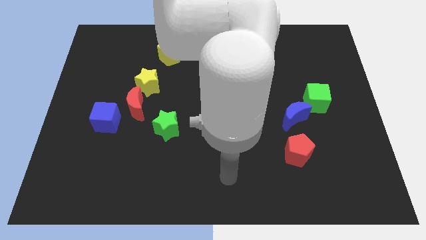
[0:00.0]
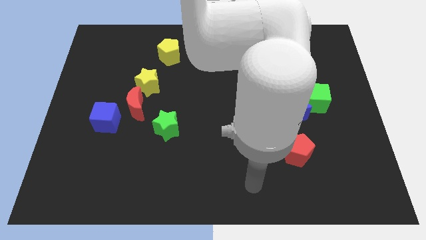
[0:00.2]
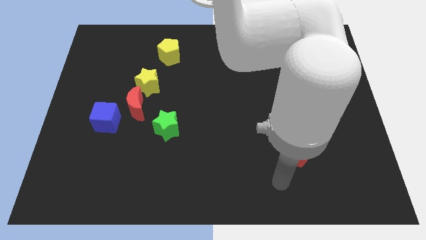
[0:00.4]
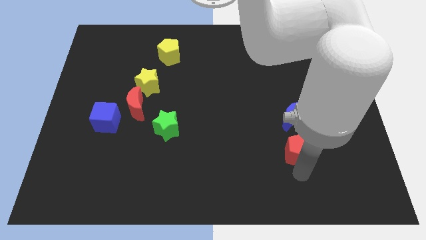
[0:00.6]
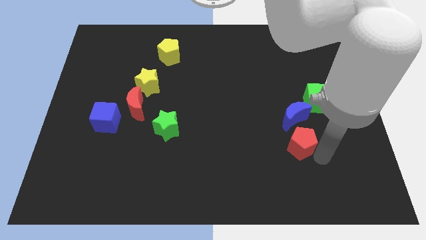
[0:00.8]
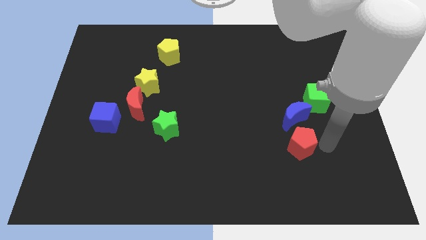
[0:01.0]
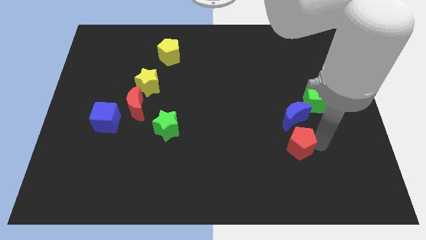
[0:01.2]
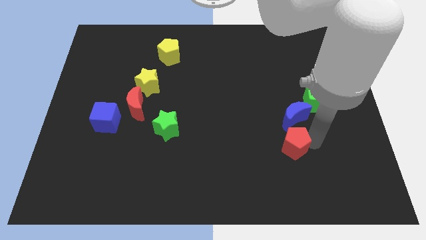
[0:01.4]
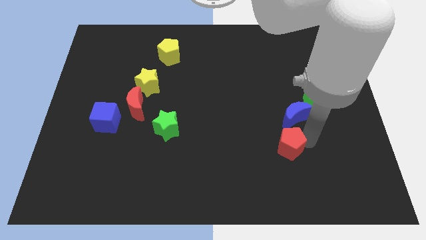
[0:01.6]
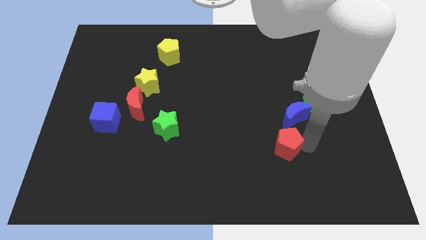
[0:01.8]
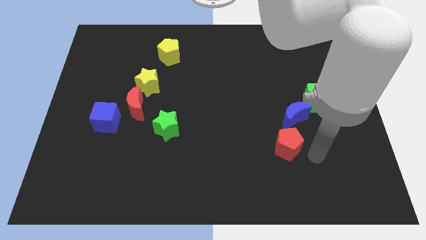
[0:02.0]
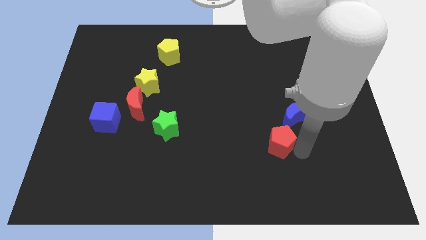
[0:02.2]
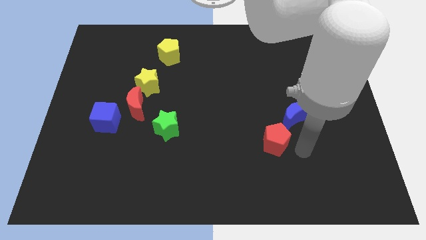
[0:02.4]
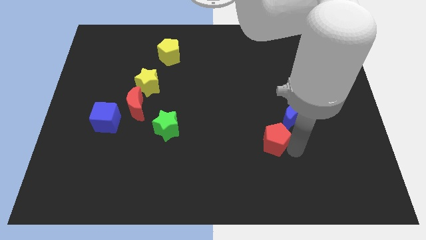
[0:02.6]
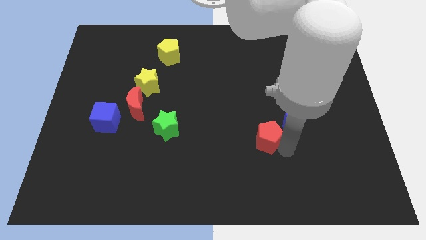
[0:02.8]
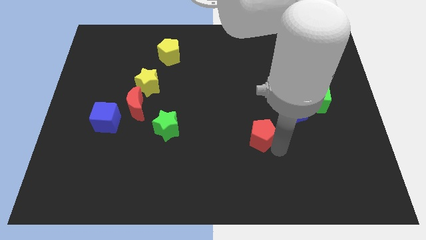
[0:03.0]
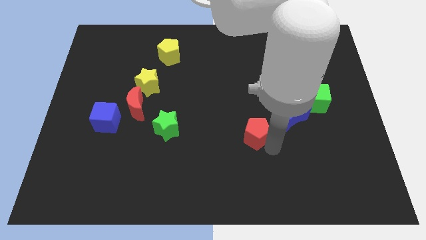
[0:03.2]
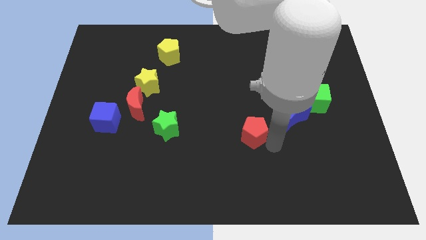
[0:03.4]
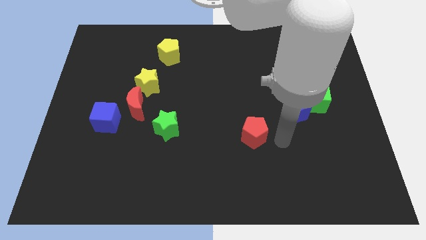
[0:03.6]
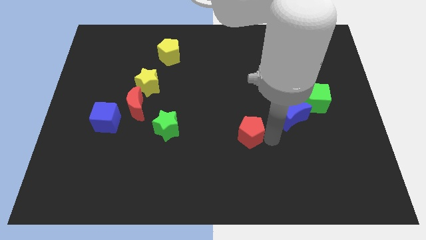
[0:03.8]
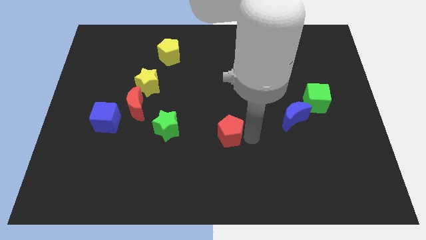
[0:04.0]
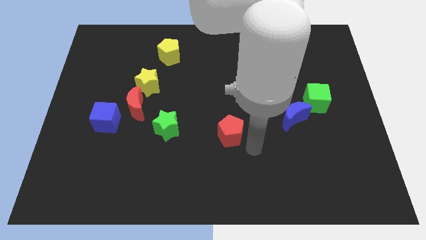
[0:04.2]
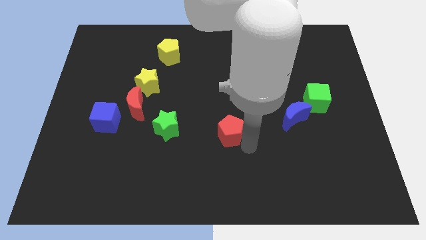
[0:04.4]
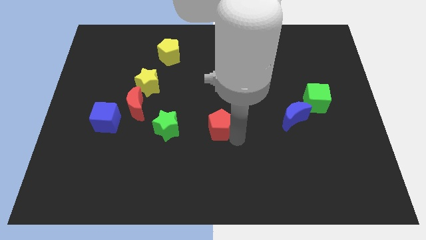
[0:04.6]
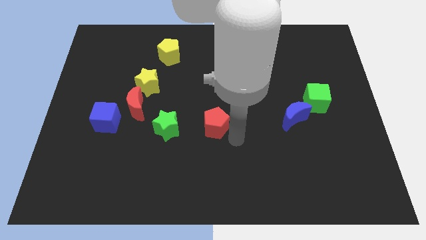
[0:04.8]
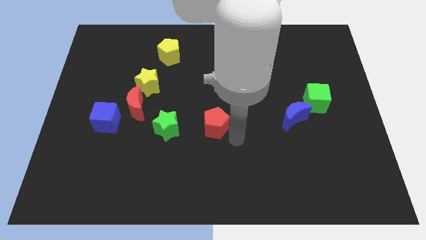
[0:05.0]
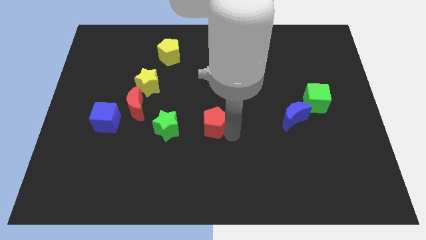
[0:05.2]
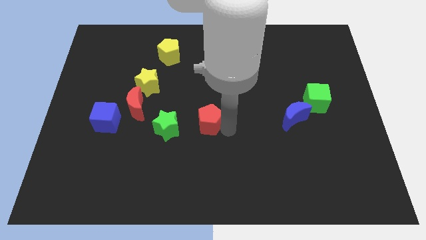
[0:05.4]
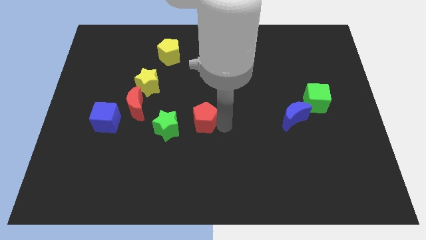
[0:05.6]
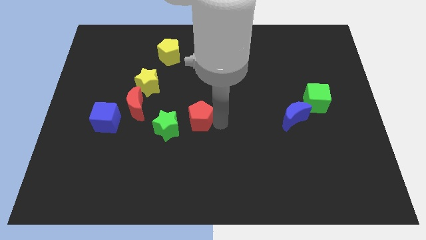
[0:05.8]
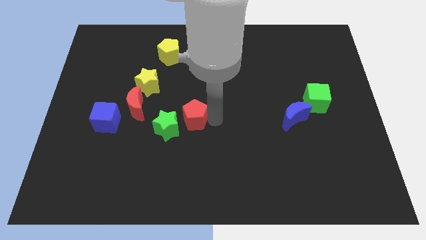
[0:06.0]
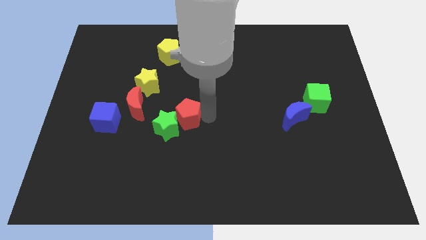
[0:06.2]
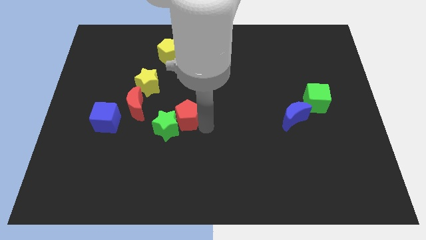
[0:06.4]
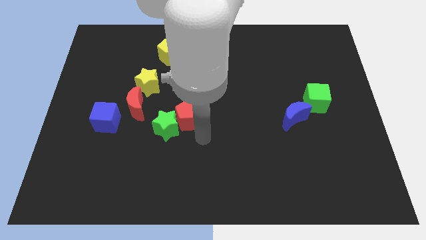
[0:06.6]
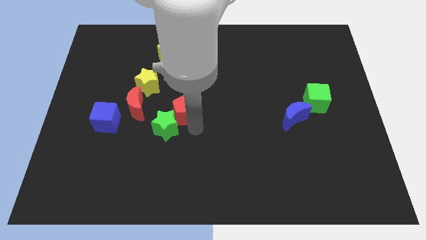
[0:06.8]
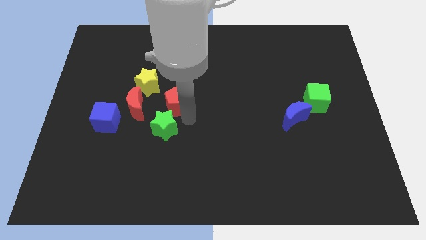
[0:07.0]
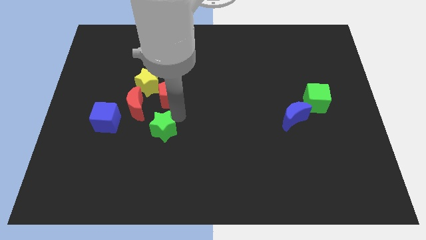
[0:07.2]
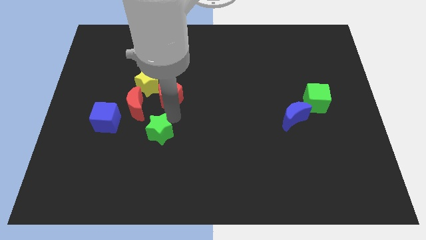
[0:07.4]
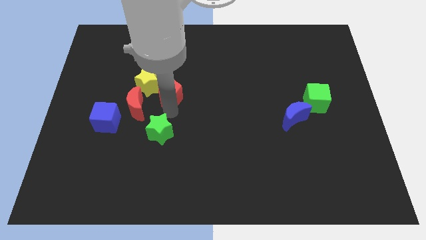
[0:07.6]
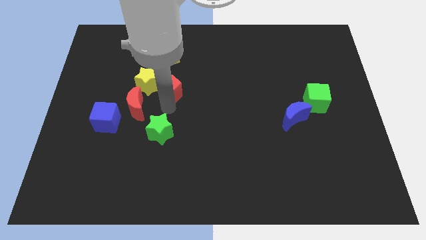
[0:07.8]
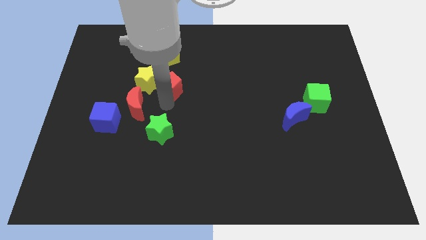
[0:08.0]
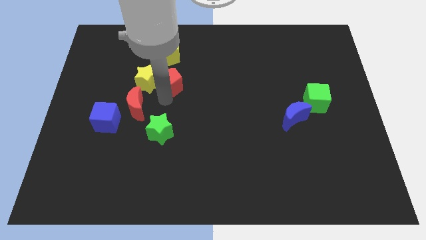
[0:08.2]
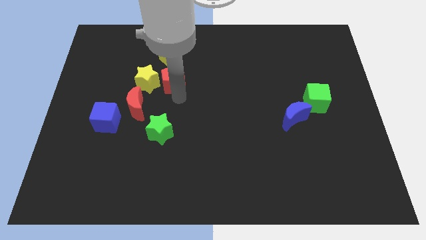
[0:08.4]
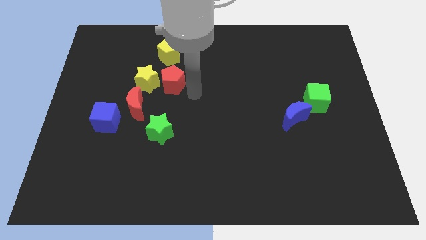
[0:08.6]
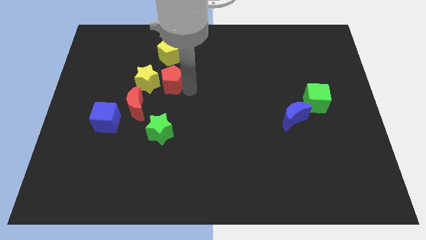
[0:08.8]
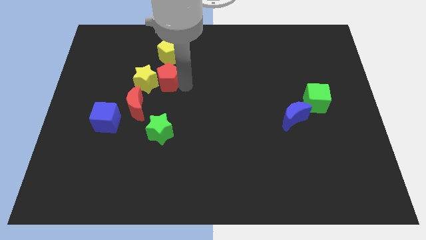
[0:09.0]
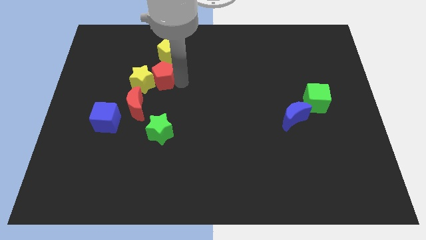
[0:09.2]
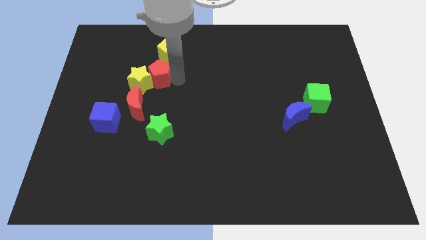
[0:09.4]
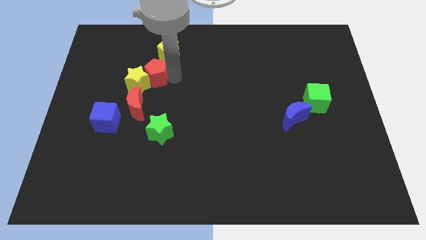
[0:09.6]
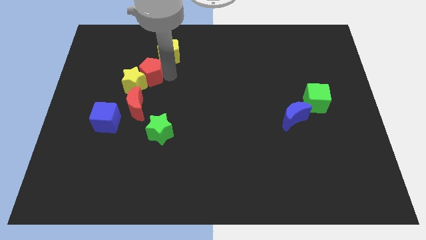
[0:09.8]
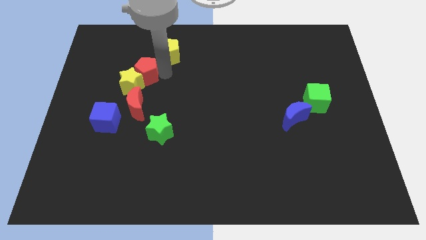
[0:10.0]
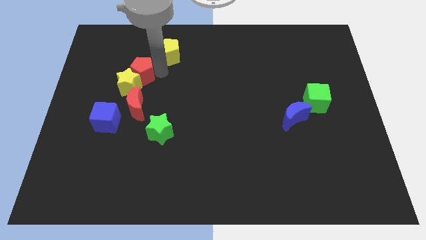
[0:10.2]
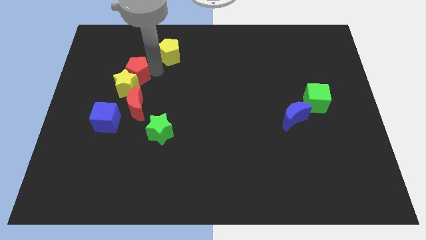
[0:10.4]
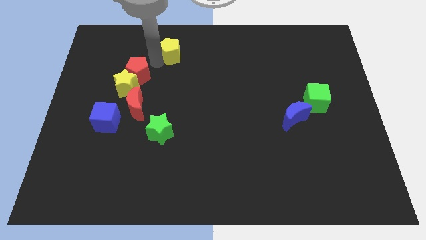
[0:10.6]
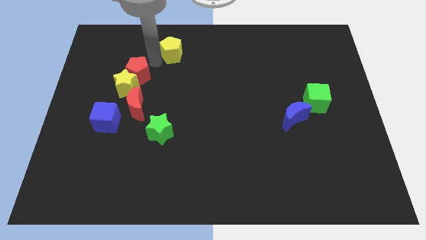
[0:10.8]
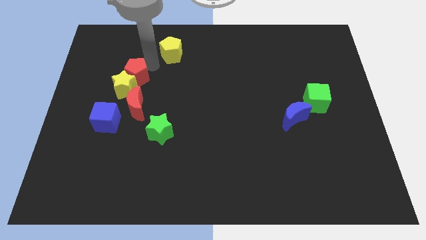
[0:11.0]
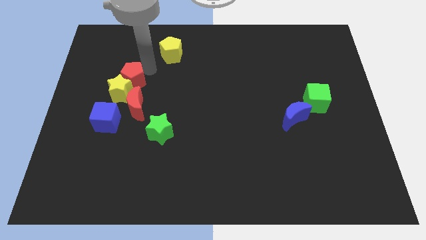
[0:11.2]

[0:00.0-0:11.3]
slide the red pentagon to the top left of the red moon

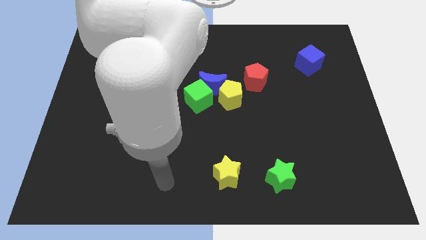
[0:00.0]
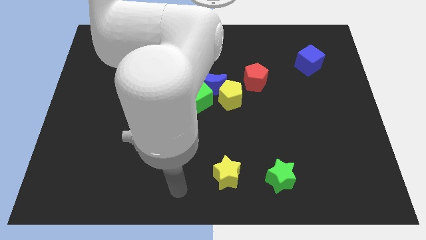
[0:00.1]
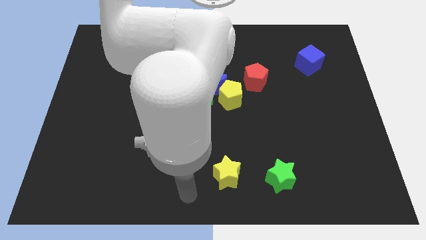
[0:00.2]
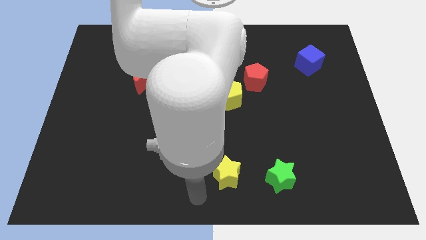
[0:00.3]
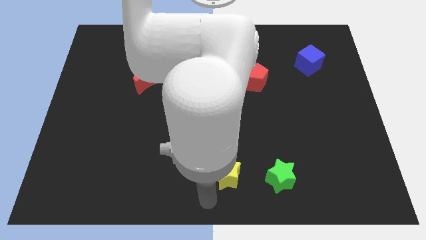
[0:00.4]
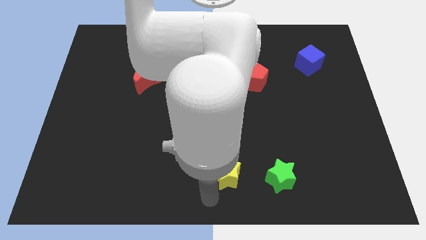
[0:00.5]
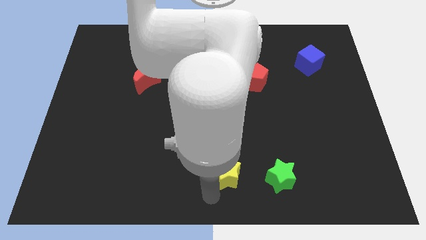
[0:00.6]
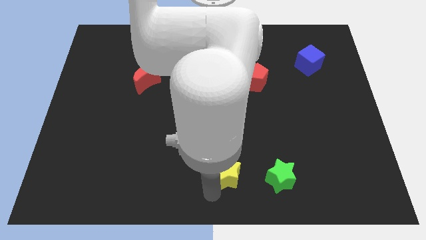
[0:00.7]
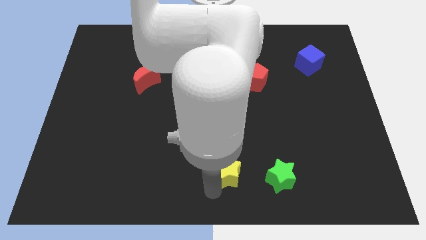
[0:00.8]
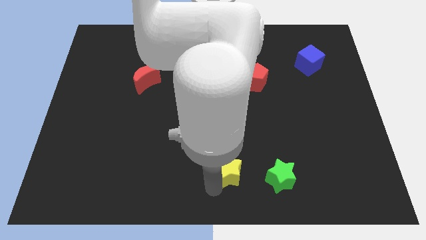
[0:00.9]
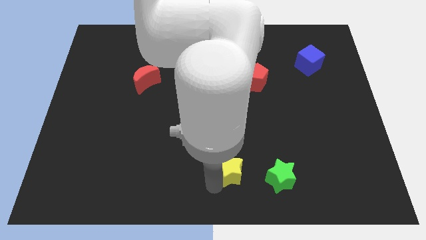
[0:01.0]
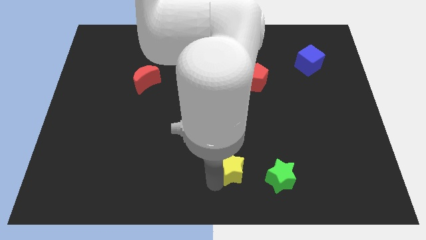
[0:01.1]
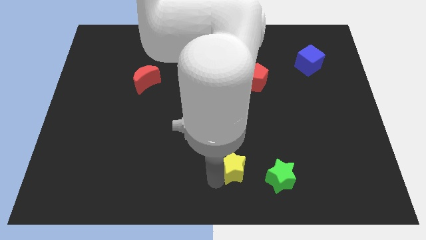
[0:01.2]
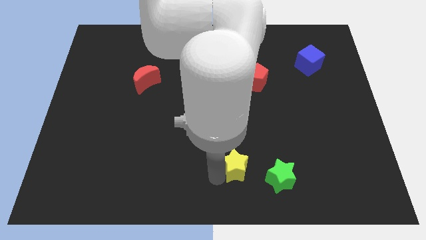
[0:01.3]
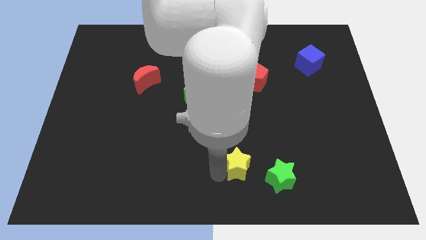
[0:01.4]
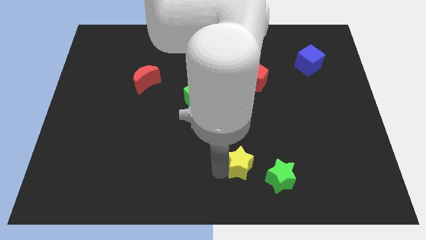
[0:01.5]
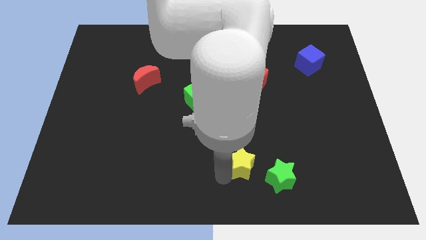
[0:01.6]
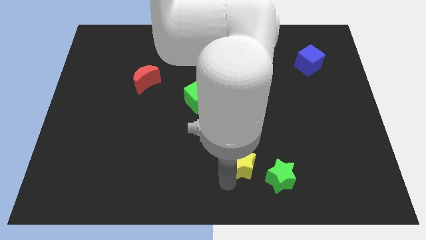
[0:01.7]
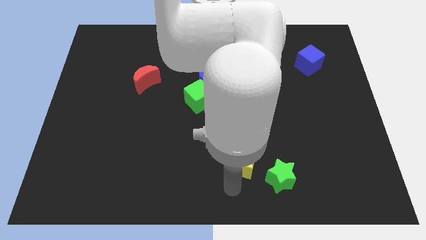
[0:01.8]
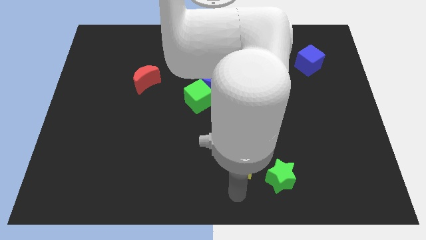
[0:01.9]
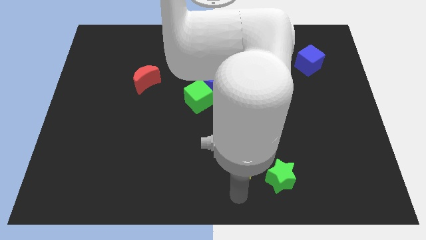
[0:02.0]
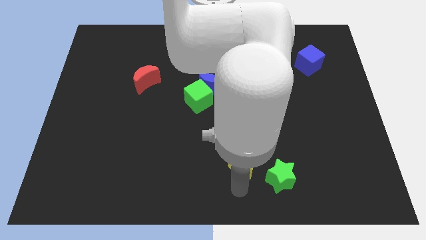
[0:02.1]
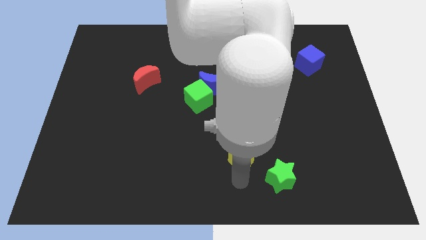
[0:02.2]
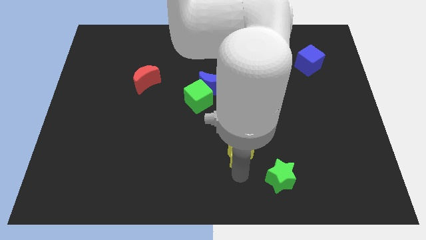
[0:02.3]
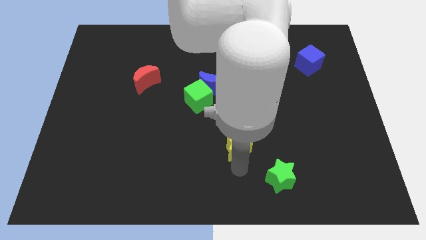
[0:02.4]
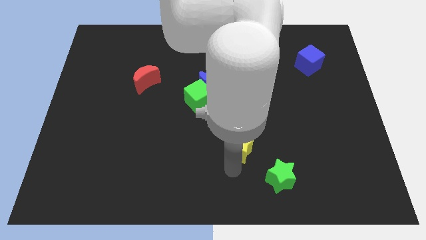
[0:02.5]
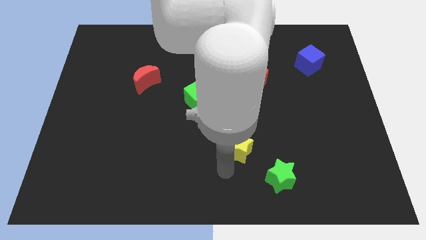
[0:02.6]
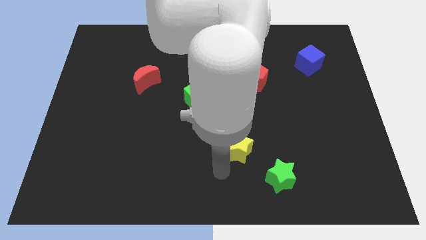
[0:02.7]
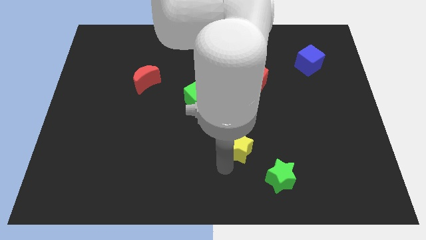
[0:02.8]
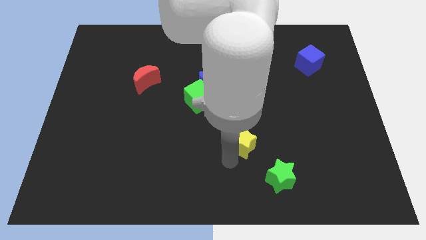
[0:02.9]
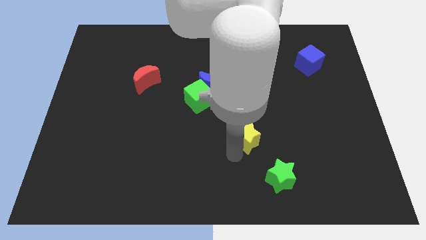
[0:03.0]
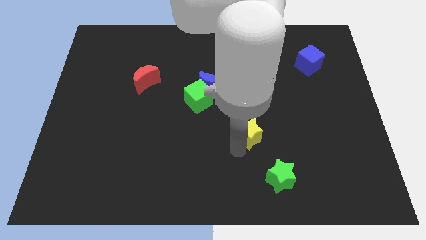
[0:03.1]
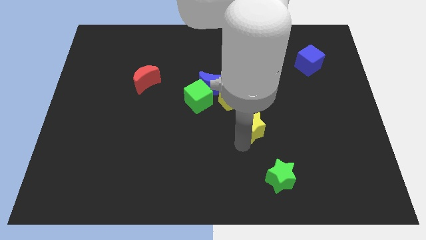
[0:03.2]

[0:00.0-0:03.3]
slide the yellow star to the bottom side of the red pentagon
